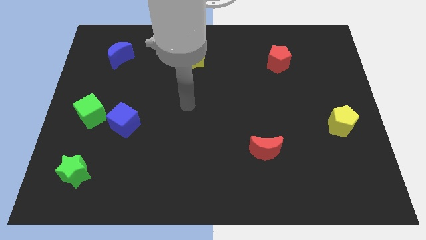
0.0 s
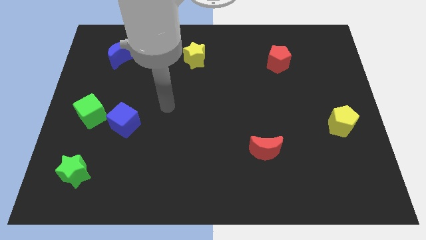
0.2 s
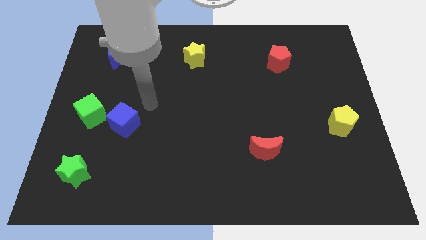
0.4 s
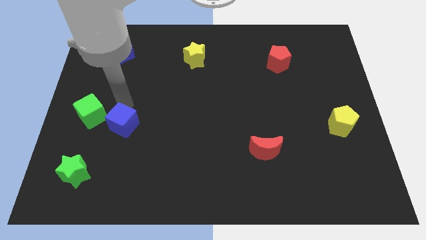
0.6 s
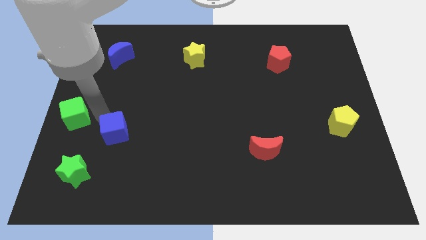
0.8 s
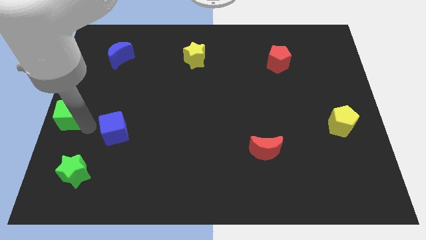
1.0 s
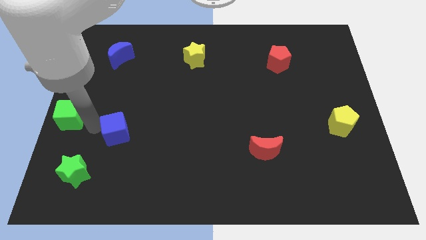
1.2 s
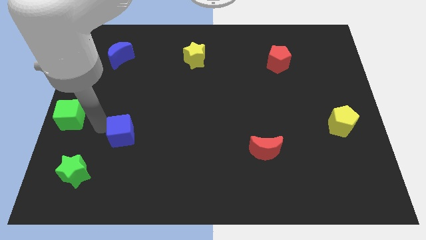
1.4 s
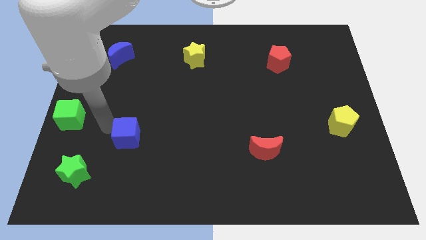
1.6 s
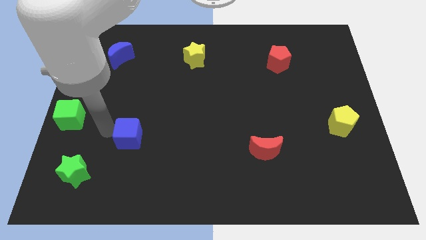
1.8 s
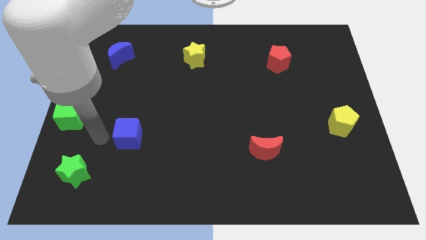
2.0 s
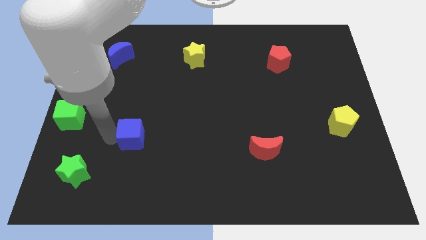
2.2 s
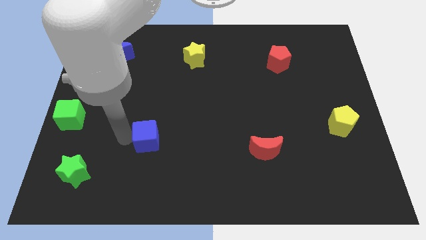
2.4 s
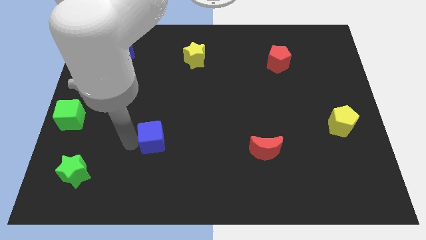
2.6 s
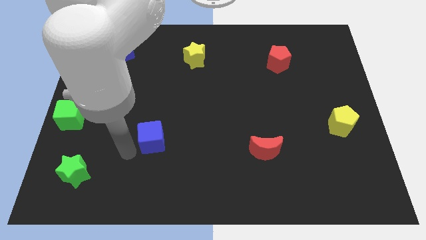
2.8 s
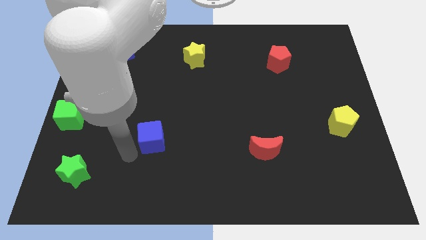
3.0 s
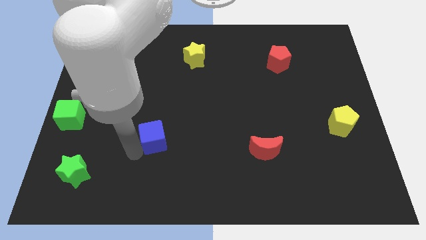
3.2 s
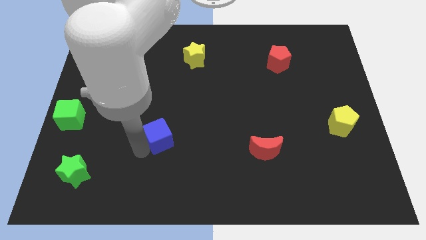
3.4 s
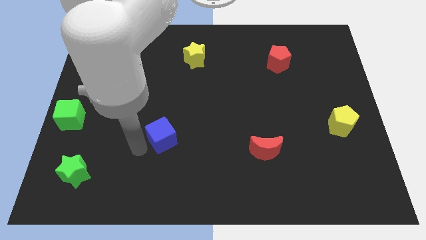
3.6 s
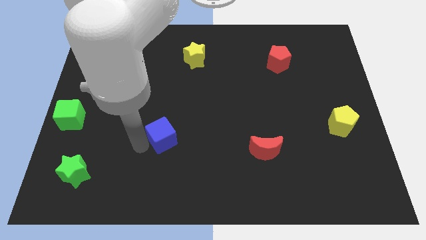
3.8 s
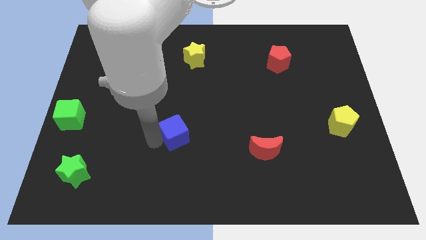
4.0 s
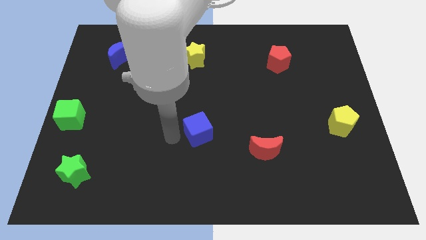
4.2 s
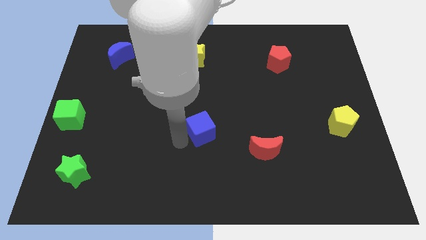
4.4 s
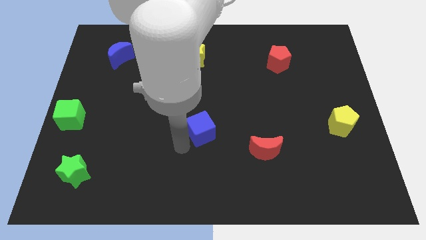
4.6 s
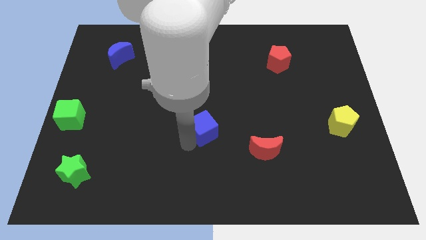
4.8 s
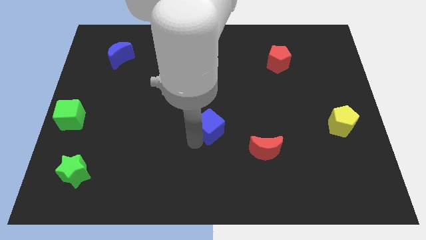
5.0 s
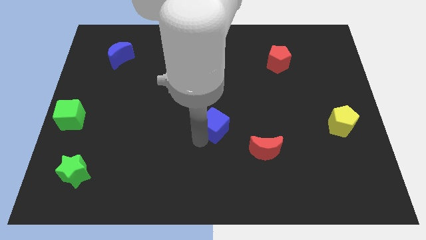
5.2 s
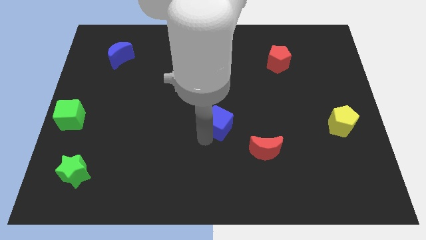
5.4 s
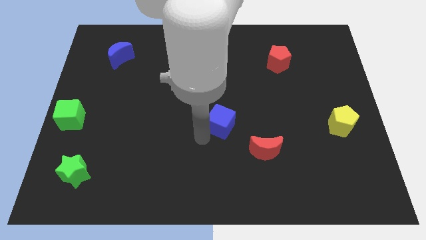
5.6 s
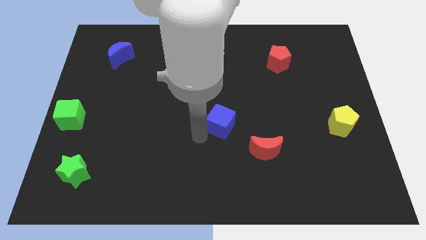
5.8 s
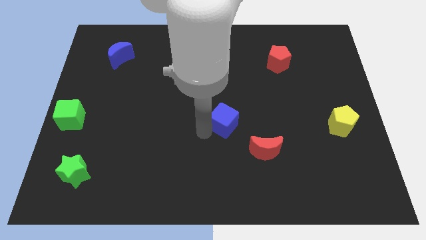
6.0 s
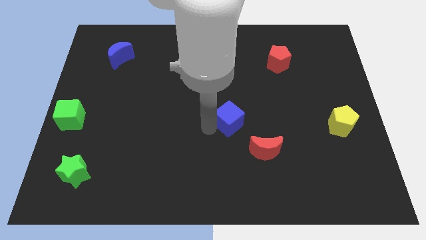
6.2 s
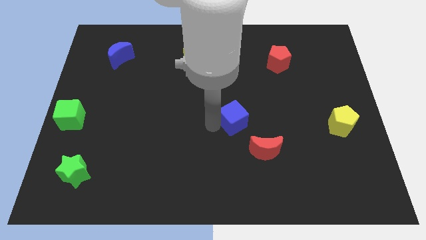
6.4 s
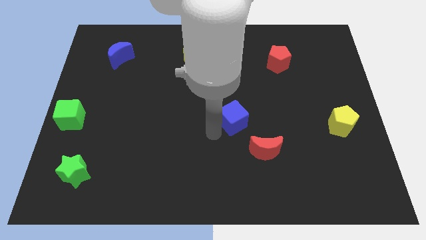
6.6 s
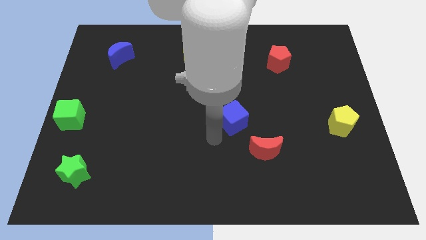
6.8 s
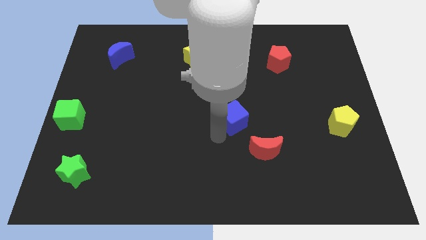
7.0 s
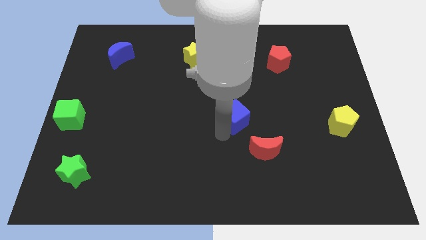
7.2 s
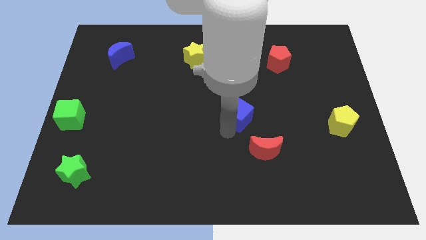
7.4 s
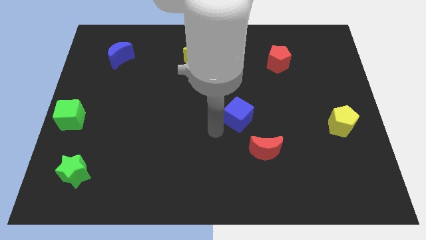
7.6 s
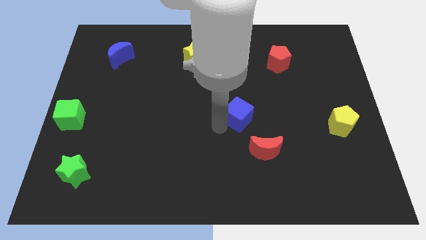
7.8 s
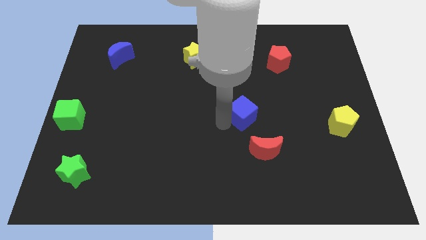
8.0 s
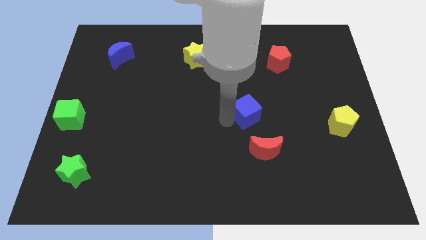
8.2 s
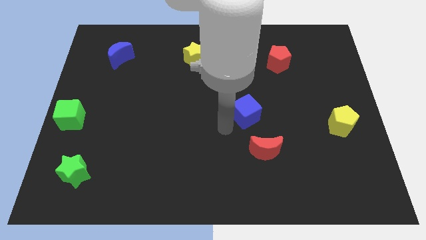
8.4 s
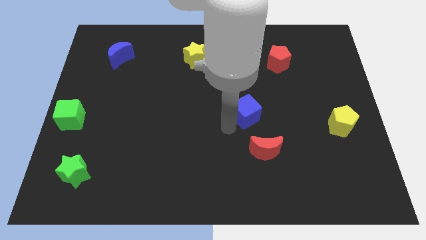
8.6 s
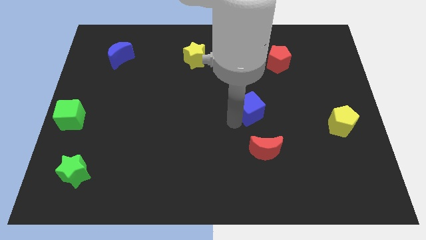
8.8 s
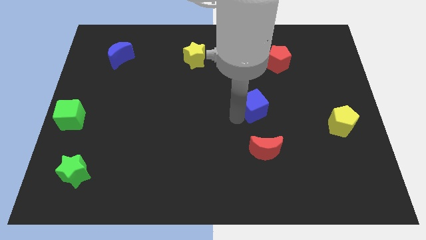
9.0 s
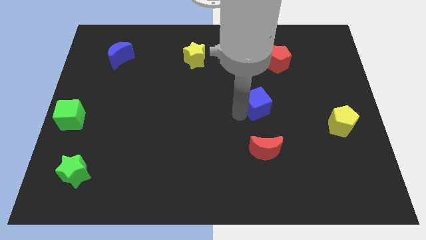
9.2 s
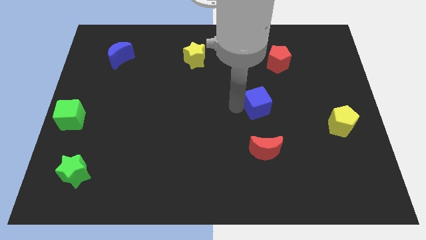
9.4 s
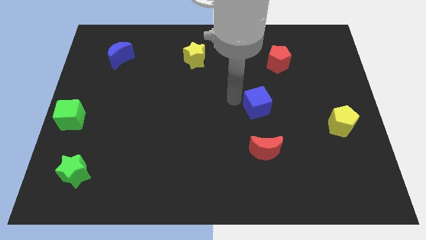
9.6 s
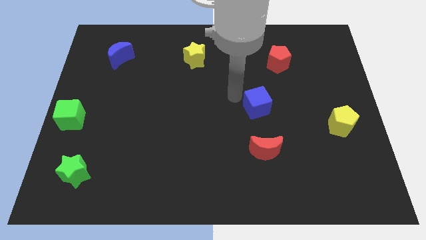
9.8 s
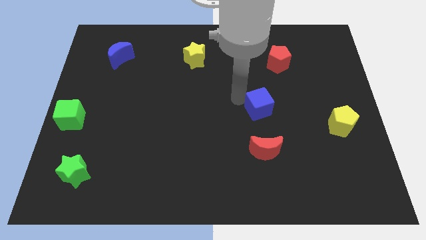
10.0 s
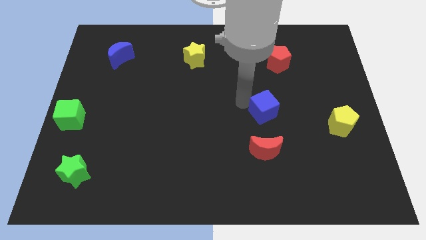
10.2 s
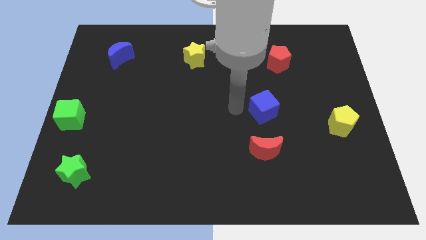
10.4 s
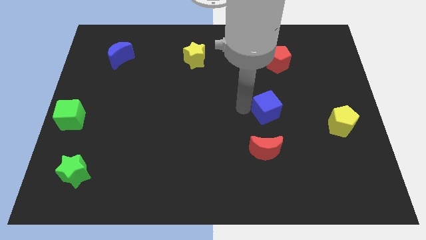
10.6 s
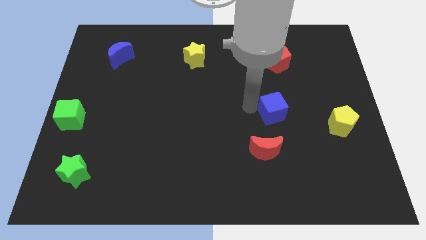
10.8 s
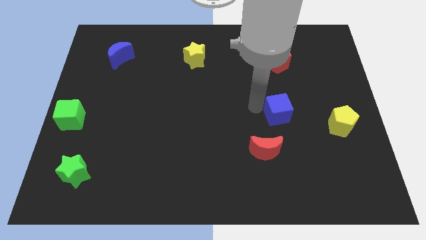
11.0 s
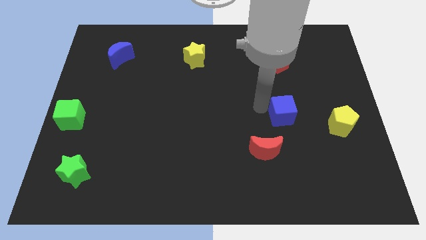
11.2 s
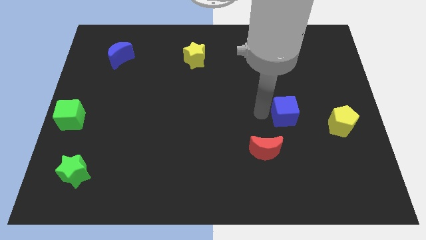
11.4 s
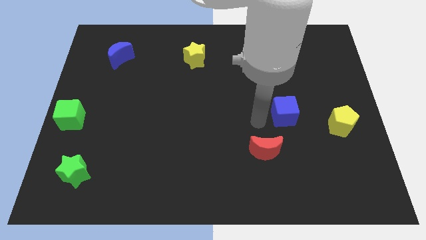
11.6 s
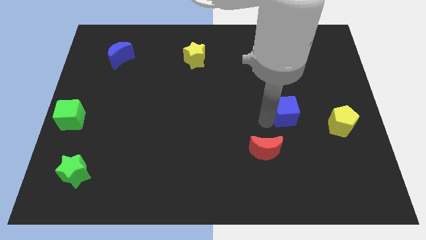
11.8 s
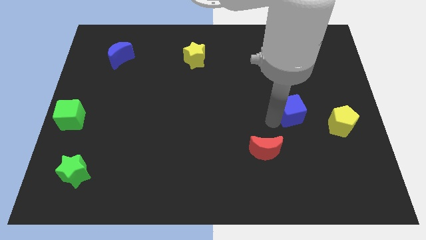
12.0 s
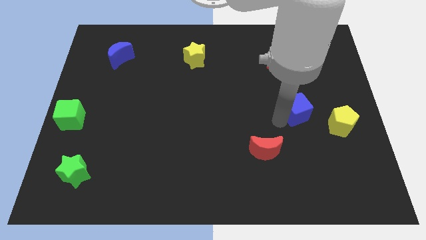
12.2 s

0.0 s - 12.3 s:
slide the blue cube to the top left of the yellow pentagon
